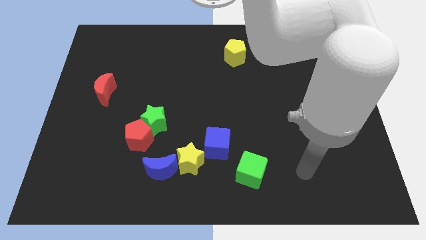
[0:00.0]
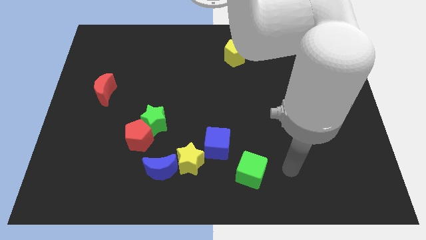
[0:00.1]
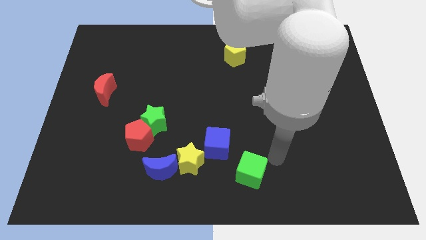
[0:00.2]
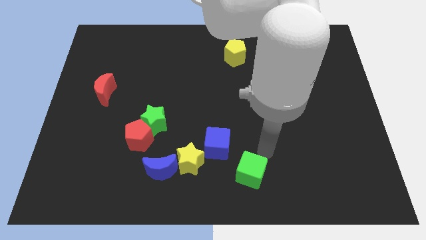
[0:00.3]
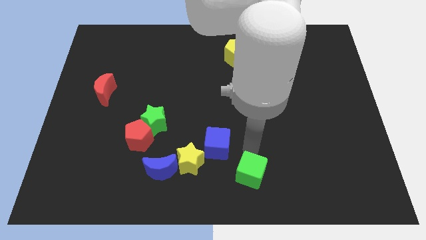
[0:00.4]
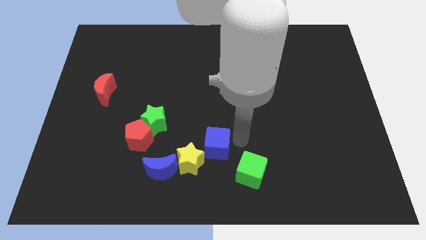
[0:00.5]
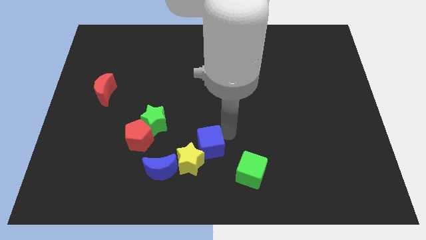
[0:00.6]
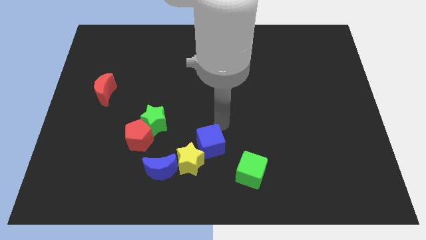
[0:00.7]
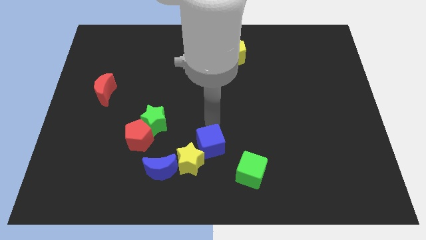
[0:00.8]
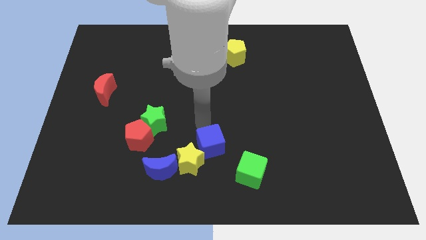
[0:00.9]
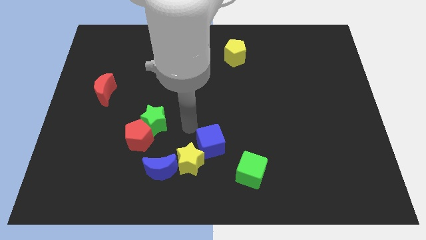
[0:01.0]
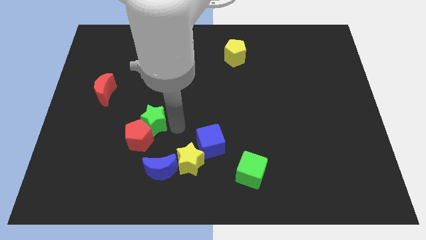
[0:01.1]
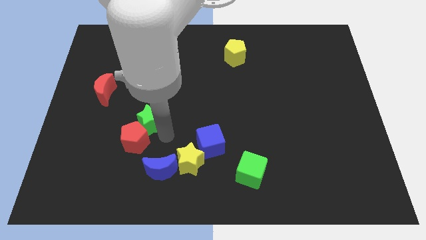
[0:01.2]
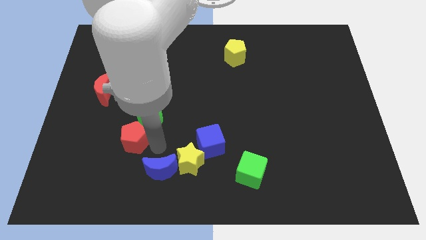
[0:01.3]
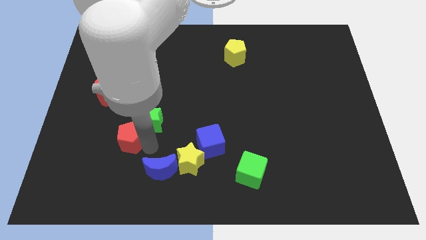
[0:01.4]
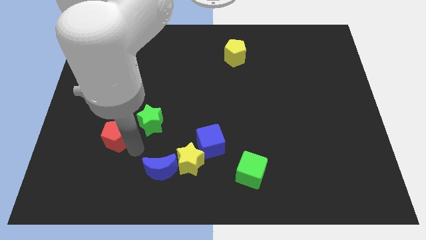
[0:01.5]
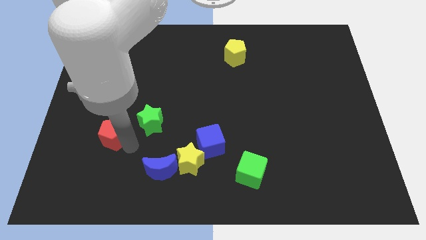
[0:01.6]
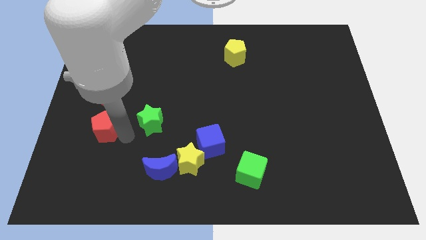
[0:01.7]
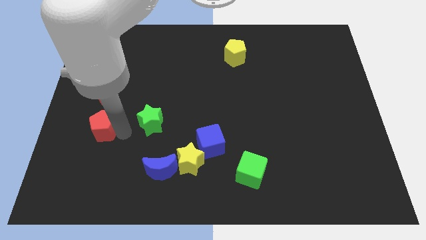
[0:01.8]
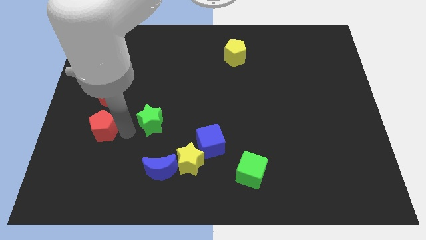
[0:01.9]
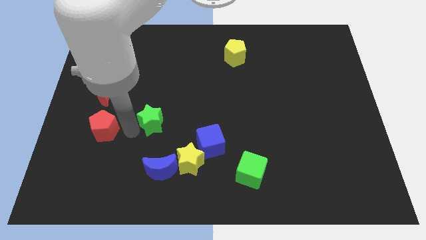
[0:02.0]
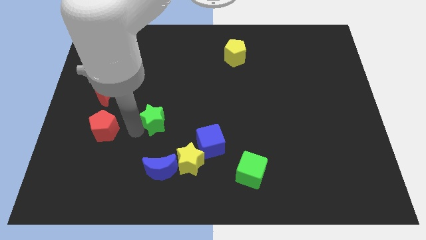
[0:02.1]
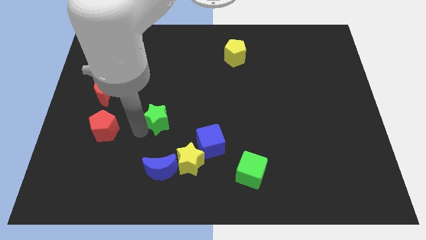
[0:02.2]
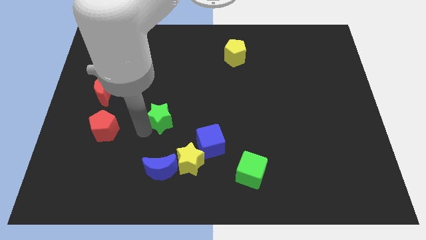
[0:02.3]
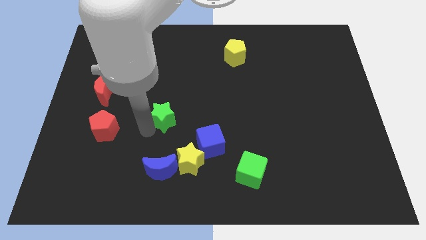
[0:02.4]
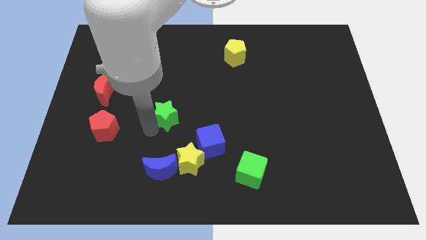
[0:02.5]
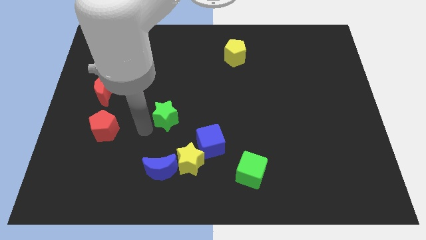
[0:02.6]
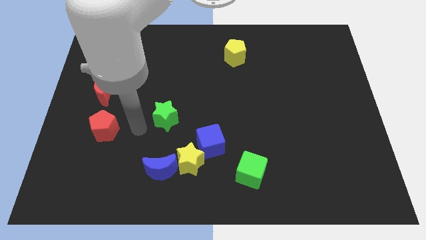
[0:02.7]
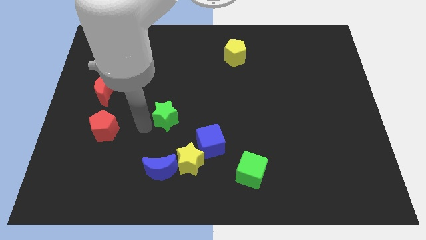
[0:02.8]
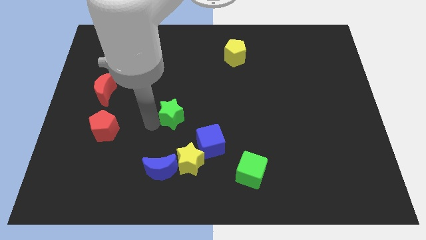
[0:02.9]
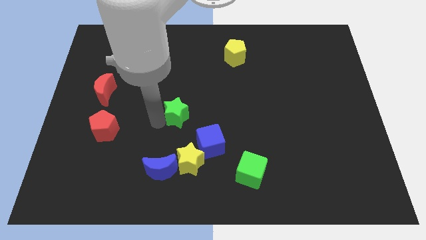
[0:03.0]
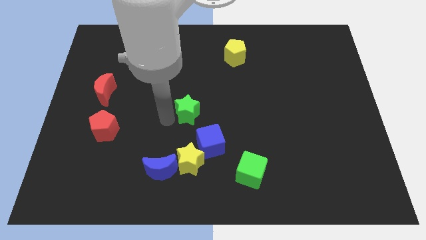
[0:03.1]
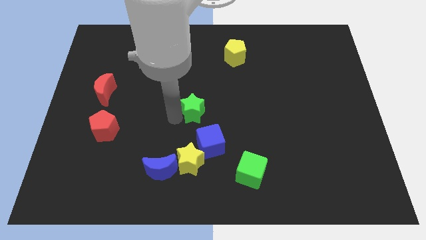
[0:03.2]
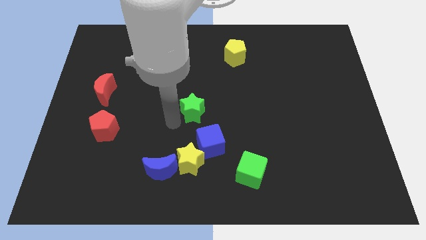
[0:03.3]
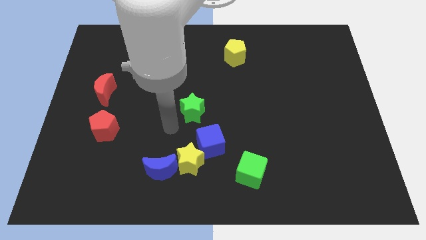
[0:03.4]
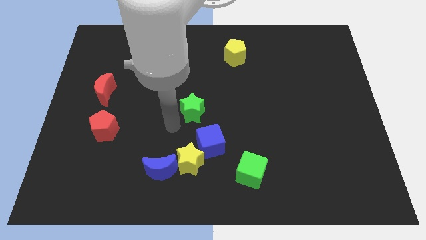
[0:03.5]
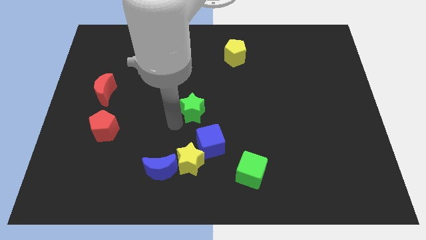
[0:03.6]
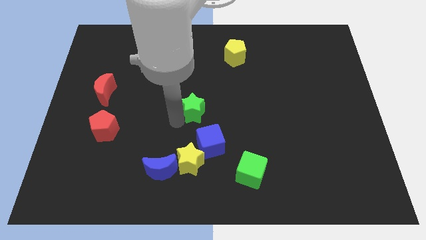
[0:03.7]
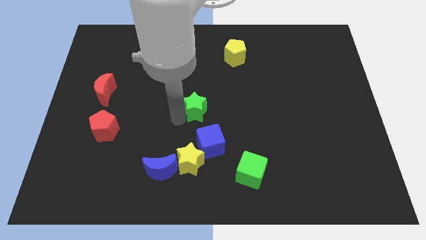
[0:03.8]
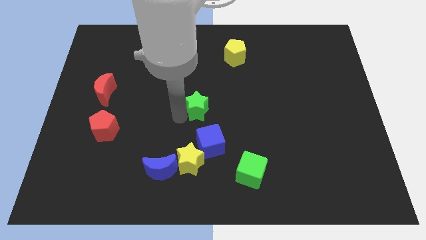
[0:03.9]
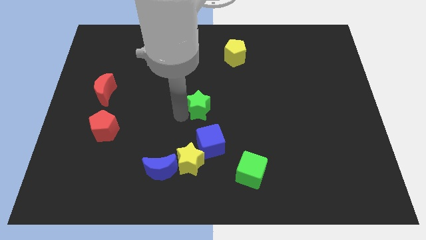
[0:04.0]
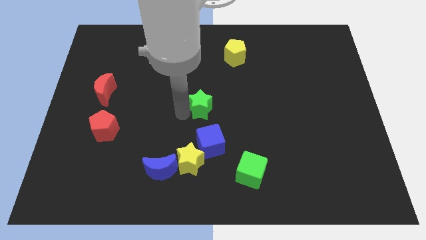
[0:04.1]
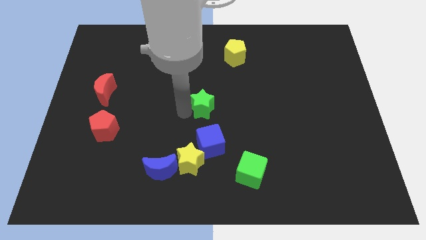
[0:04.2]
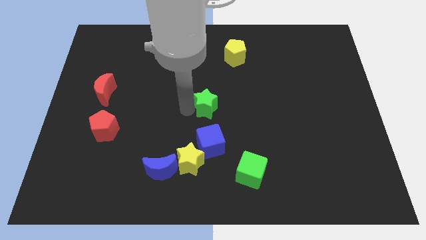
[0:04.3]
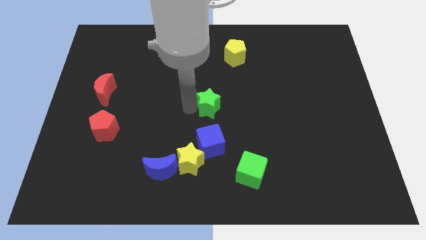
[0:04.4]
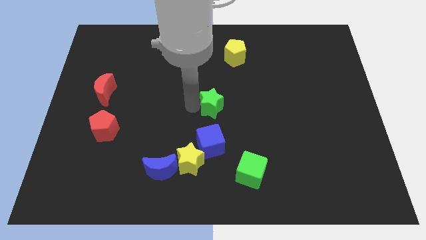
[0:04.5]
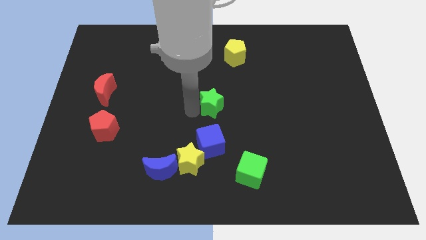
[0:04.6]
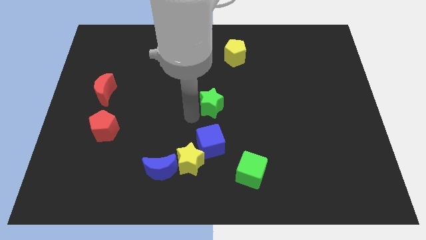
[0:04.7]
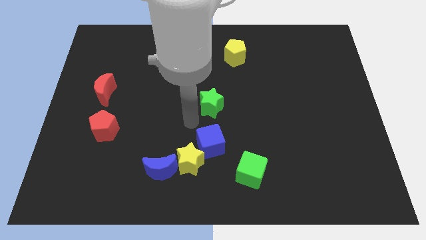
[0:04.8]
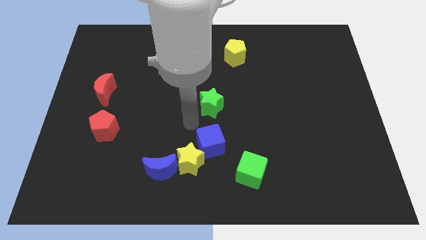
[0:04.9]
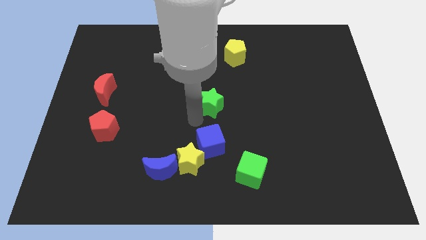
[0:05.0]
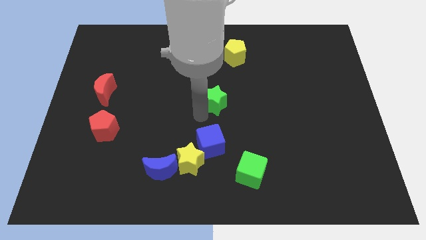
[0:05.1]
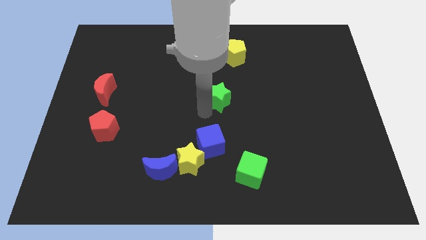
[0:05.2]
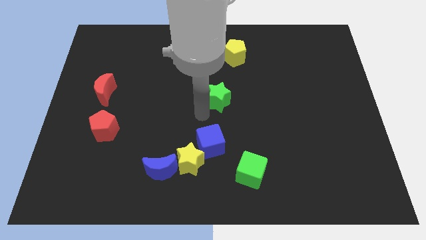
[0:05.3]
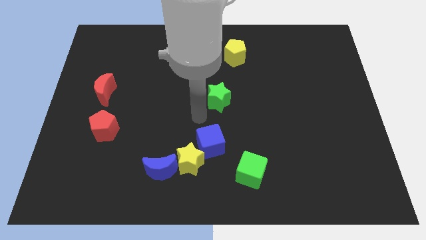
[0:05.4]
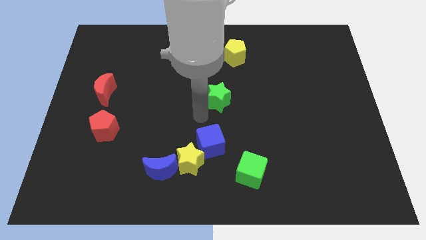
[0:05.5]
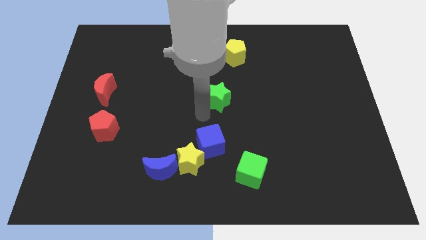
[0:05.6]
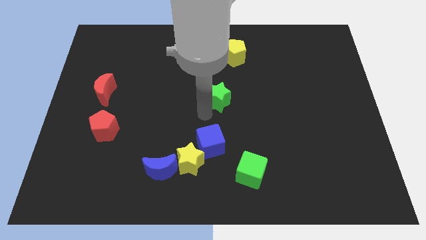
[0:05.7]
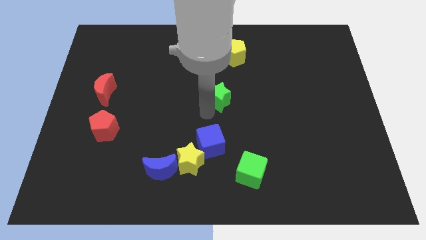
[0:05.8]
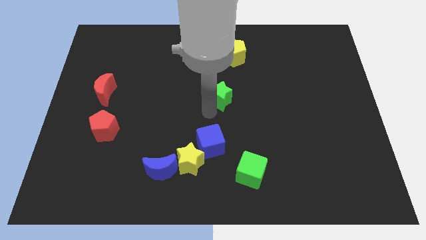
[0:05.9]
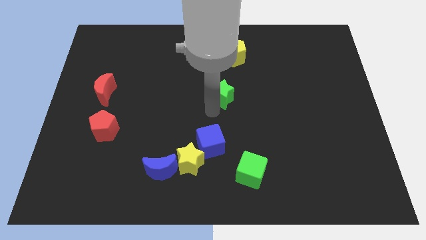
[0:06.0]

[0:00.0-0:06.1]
move the green star to the bottom side of the yellow pentagon

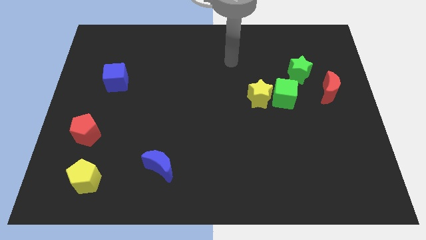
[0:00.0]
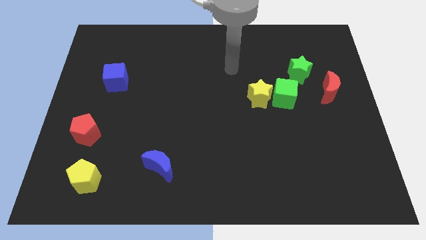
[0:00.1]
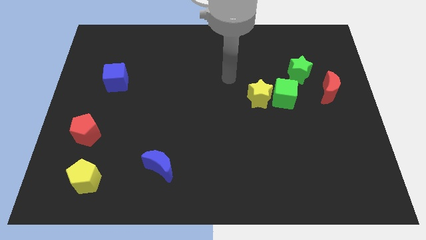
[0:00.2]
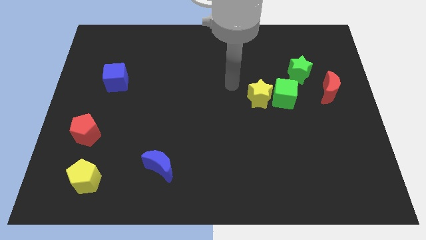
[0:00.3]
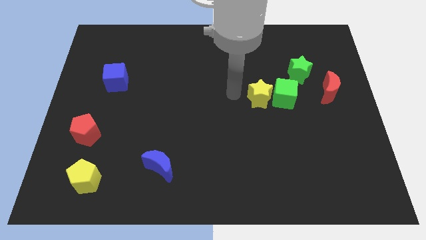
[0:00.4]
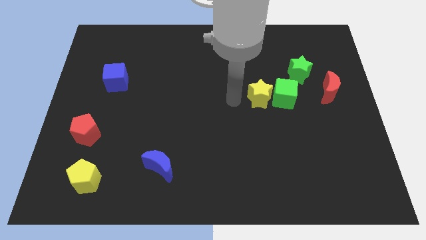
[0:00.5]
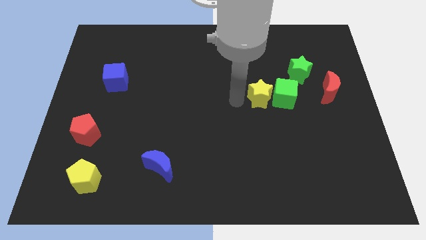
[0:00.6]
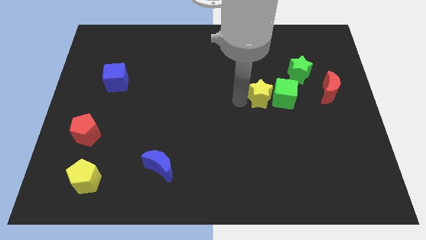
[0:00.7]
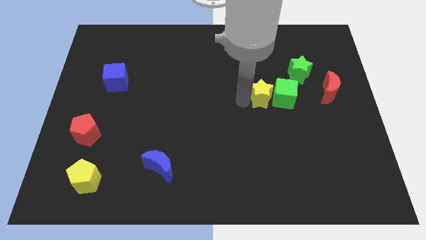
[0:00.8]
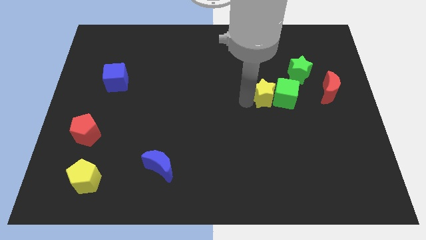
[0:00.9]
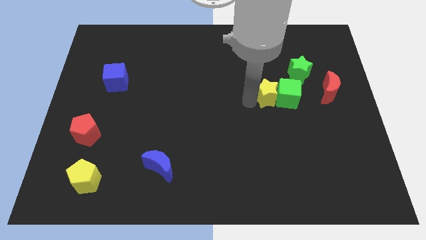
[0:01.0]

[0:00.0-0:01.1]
move the yellow star just left of the red moon
